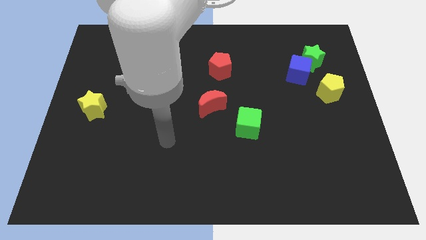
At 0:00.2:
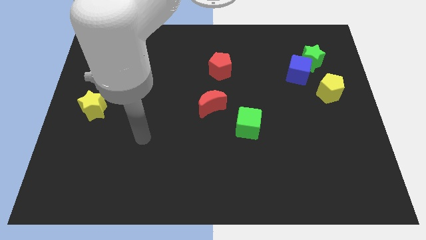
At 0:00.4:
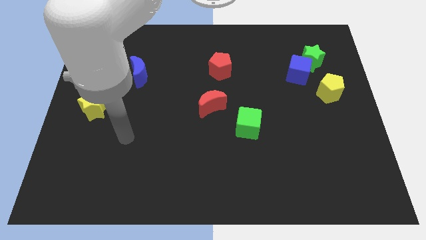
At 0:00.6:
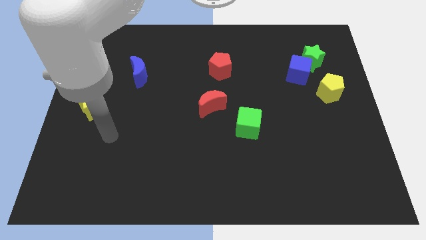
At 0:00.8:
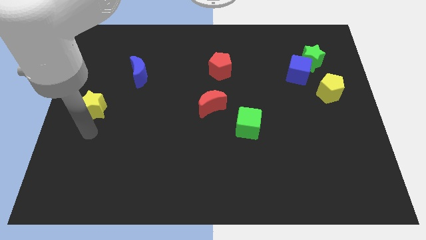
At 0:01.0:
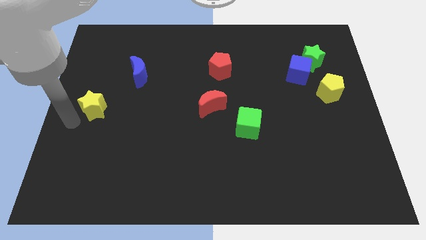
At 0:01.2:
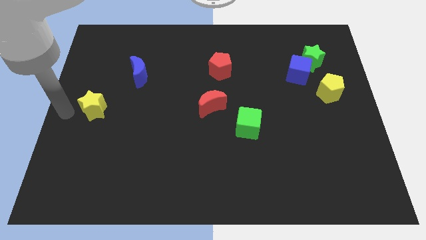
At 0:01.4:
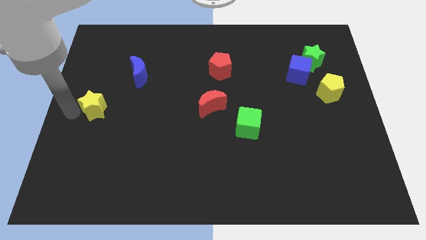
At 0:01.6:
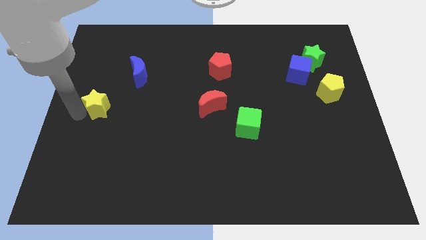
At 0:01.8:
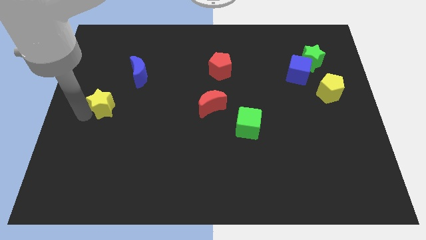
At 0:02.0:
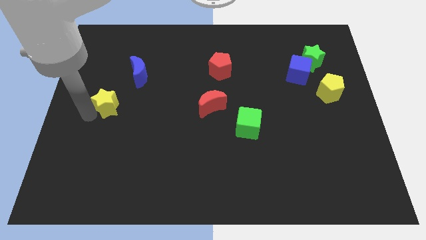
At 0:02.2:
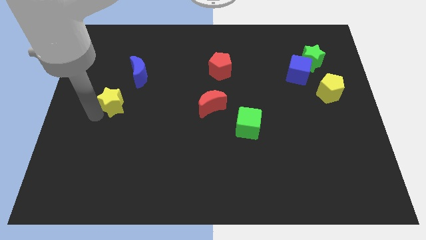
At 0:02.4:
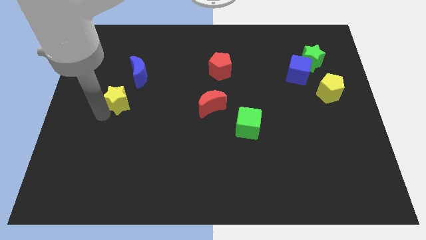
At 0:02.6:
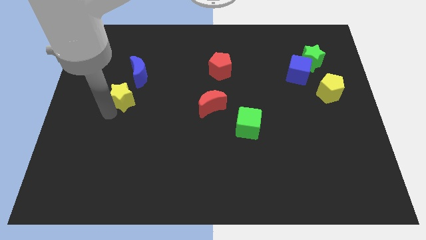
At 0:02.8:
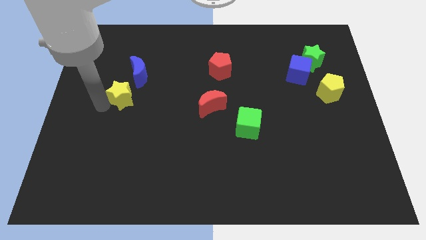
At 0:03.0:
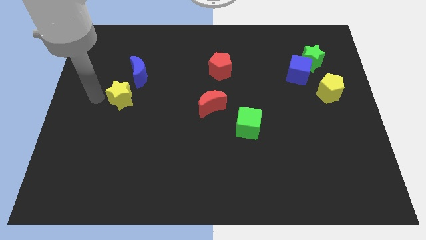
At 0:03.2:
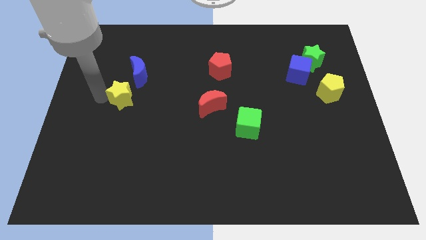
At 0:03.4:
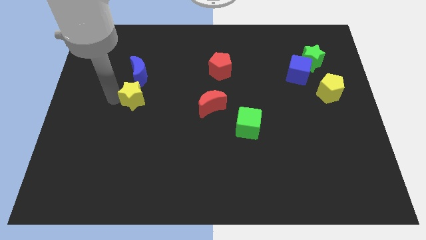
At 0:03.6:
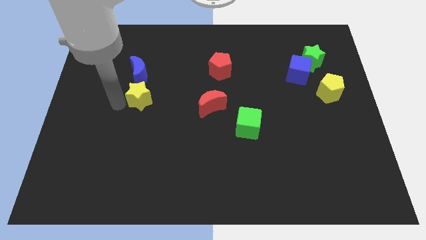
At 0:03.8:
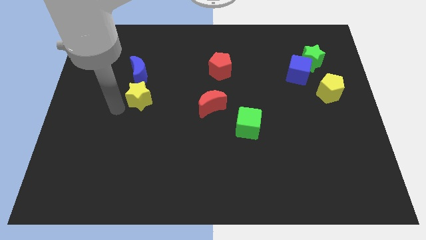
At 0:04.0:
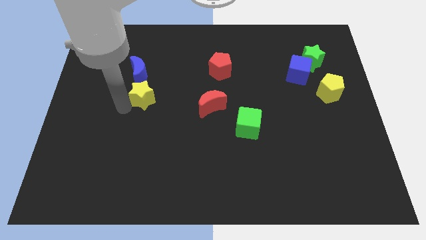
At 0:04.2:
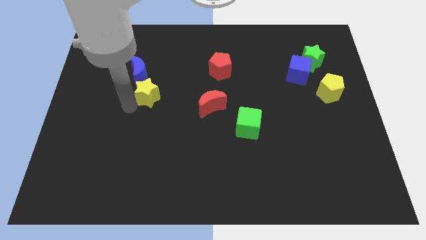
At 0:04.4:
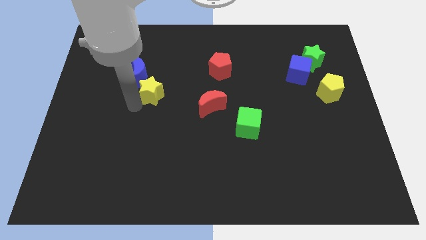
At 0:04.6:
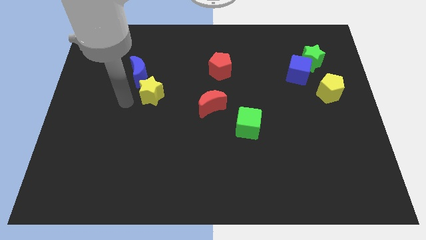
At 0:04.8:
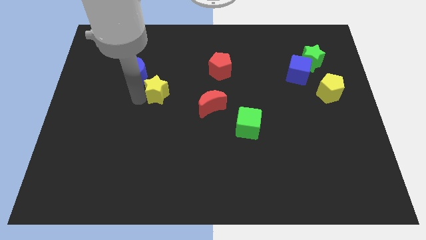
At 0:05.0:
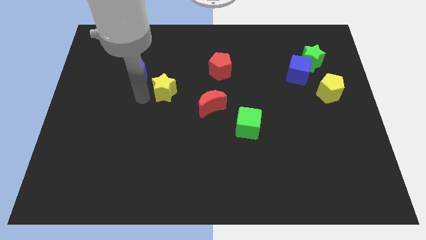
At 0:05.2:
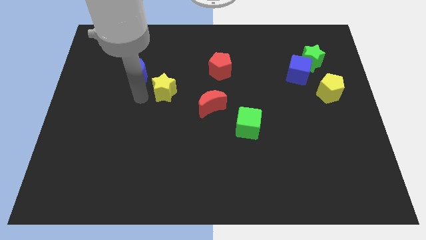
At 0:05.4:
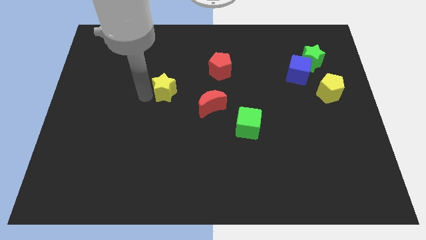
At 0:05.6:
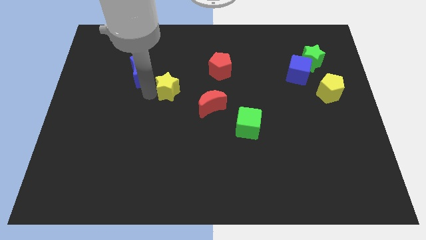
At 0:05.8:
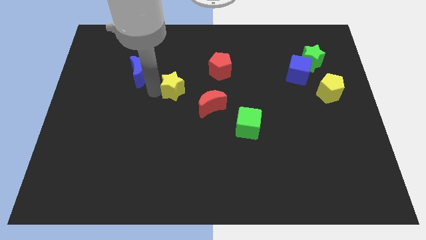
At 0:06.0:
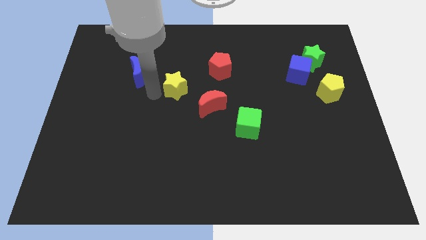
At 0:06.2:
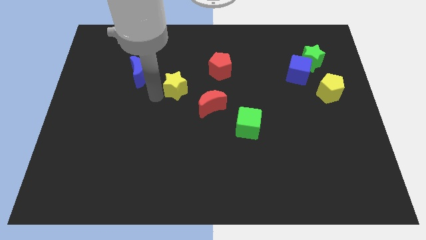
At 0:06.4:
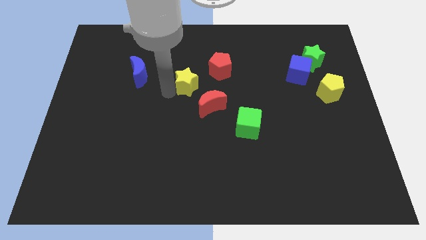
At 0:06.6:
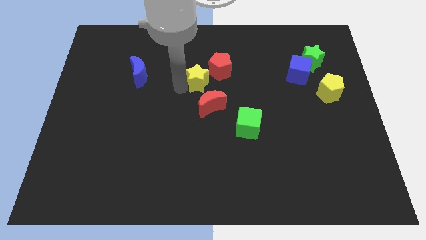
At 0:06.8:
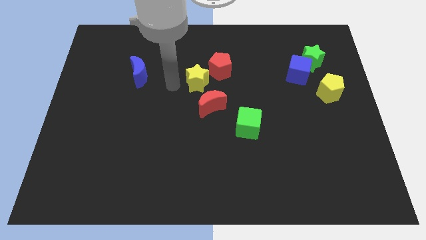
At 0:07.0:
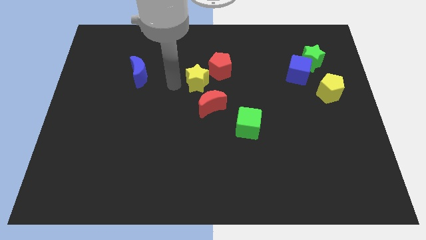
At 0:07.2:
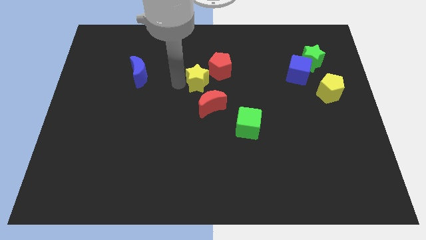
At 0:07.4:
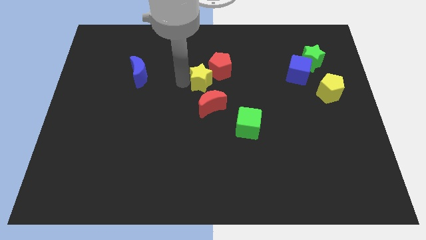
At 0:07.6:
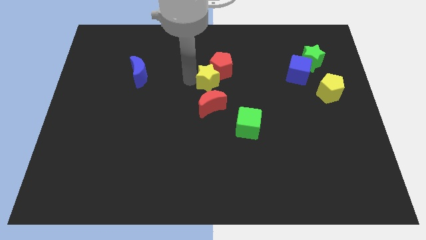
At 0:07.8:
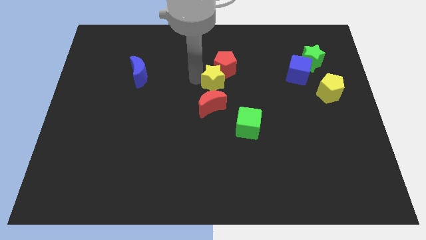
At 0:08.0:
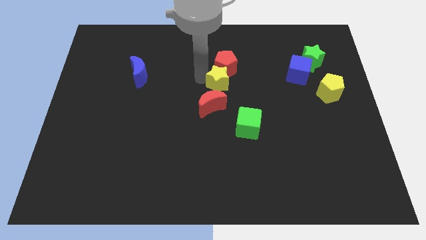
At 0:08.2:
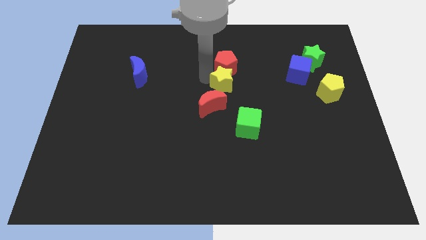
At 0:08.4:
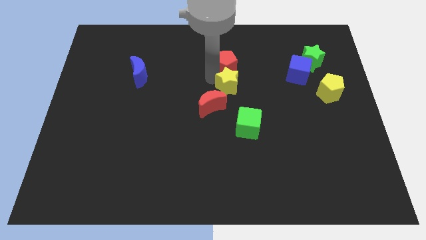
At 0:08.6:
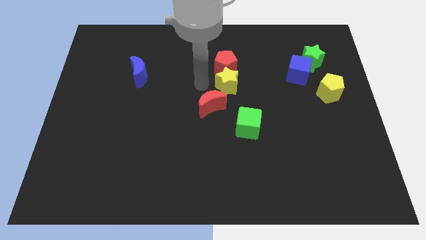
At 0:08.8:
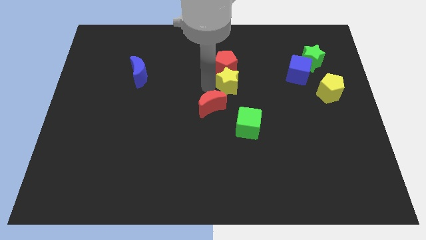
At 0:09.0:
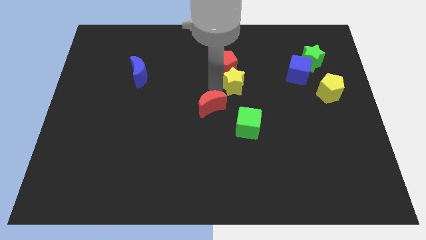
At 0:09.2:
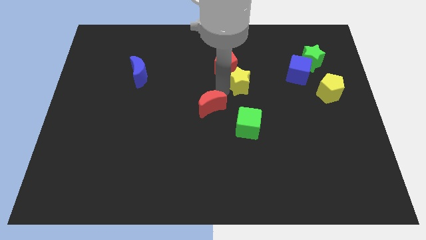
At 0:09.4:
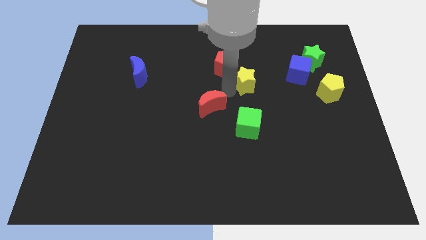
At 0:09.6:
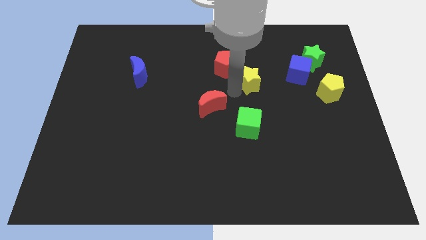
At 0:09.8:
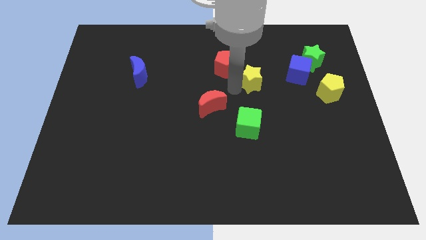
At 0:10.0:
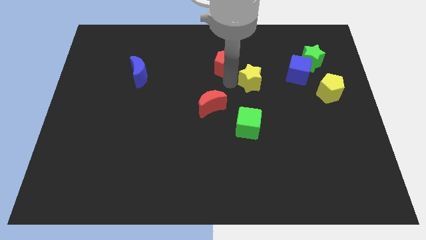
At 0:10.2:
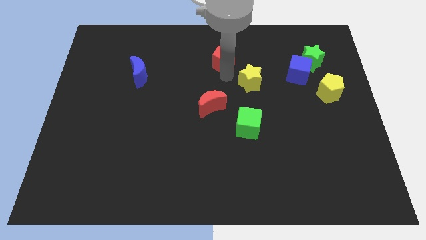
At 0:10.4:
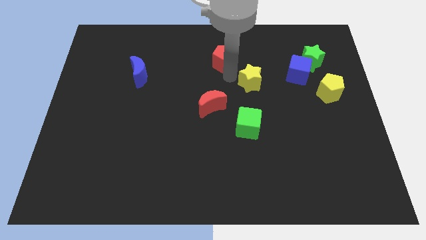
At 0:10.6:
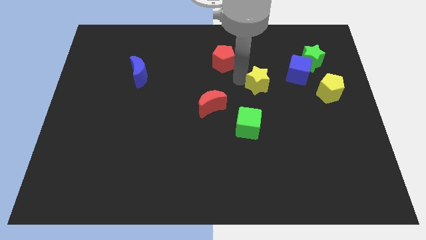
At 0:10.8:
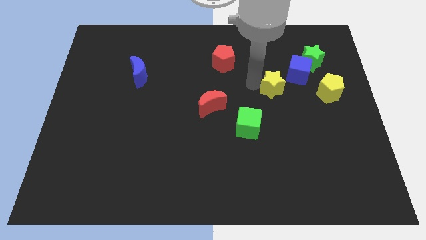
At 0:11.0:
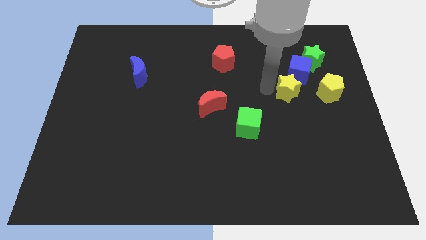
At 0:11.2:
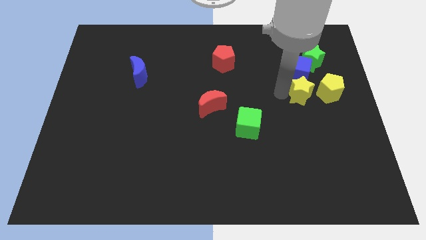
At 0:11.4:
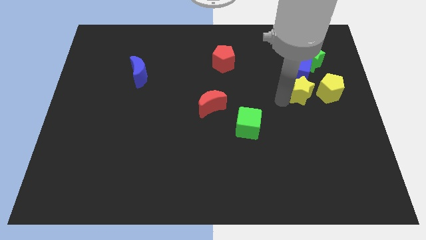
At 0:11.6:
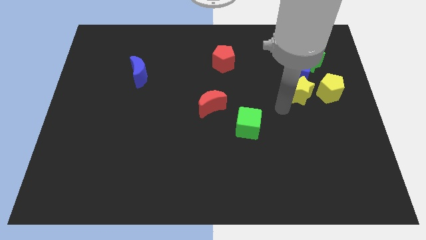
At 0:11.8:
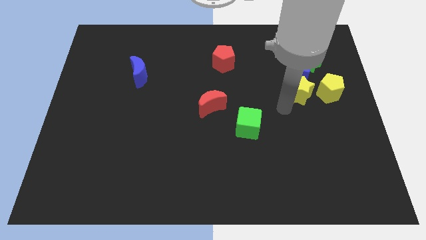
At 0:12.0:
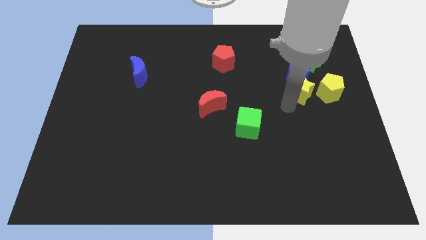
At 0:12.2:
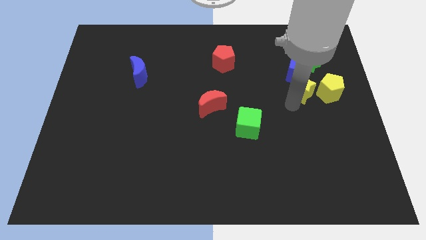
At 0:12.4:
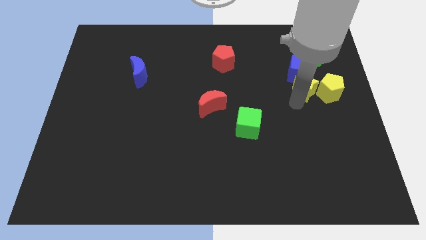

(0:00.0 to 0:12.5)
slide the yellow star next to the yellow pentagon
